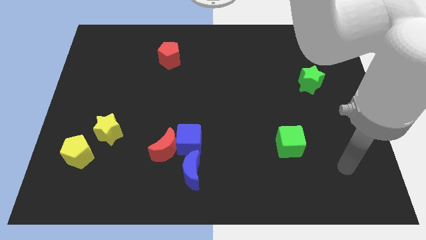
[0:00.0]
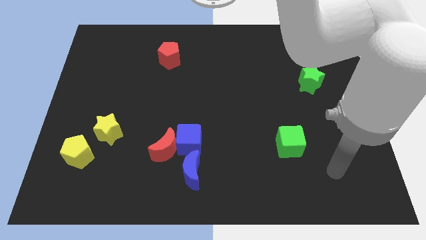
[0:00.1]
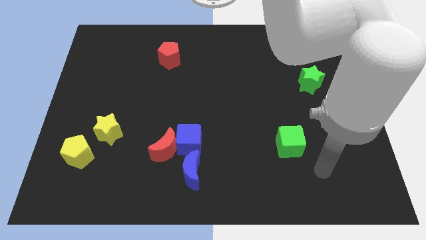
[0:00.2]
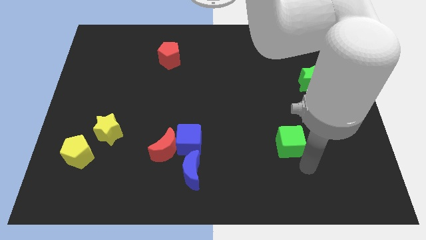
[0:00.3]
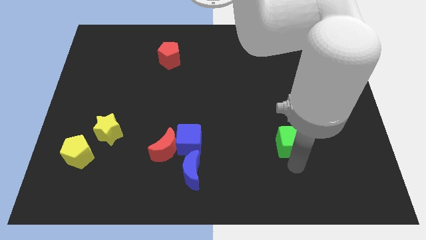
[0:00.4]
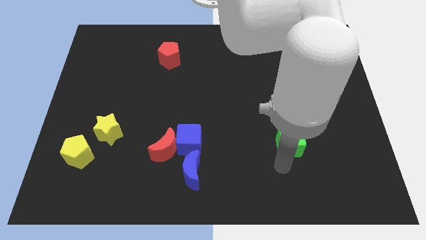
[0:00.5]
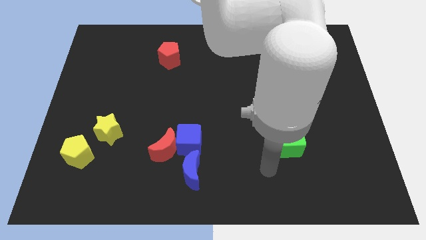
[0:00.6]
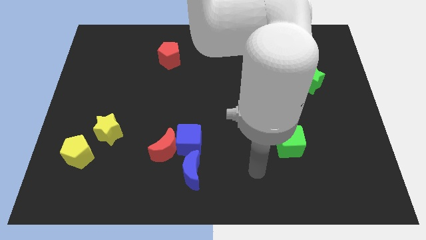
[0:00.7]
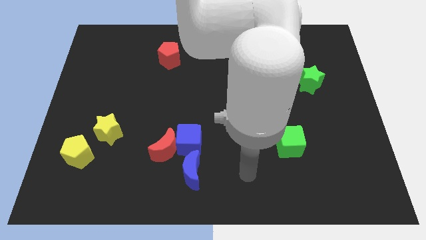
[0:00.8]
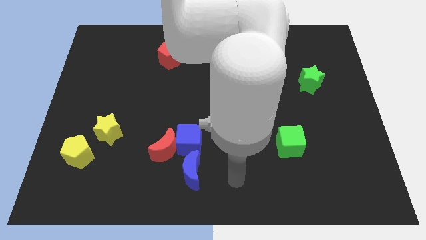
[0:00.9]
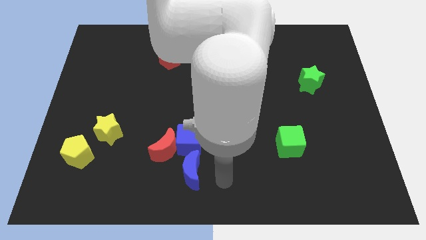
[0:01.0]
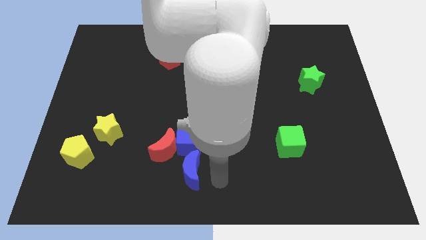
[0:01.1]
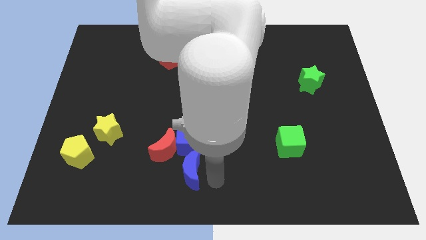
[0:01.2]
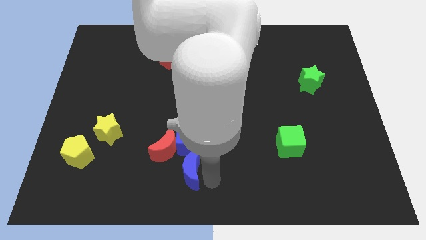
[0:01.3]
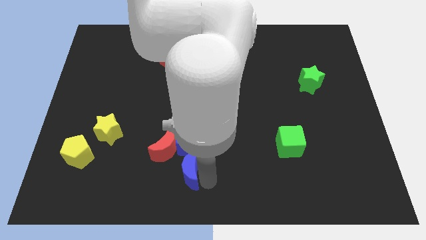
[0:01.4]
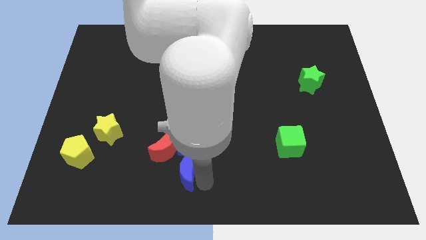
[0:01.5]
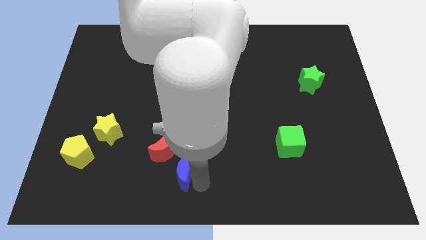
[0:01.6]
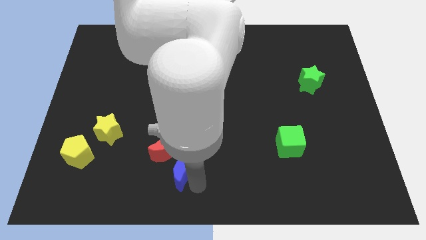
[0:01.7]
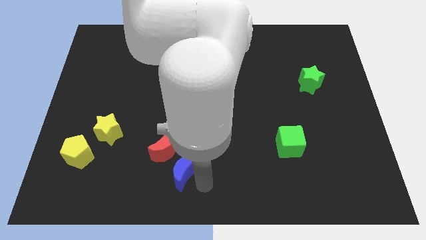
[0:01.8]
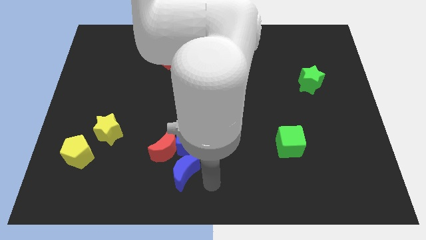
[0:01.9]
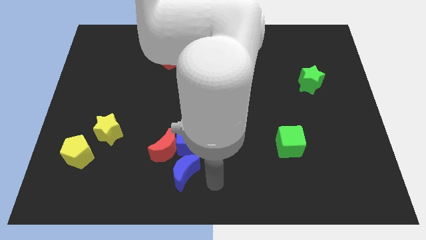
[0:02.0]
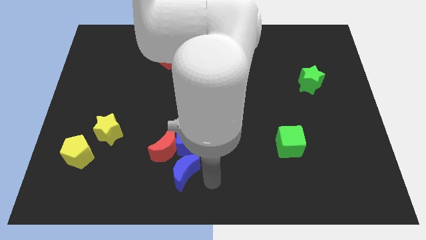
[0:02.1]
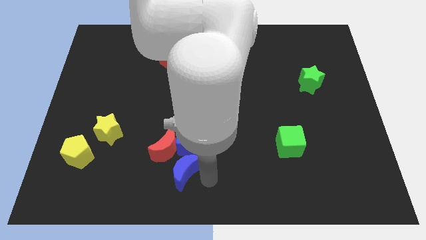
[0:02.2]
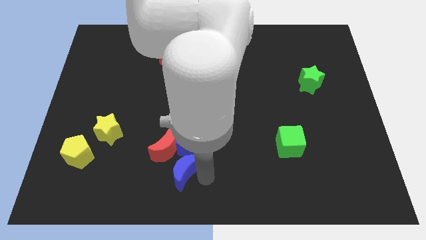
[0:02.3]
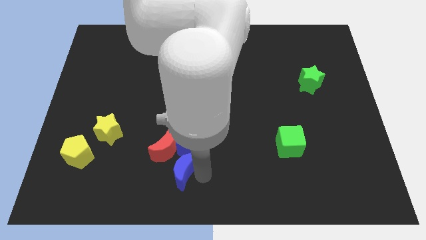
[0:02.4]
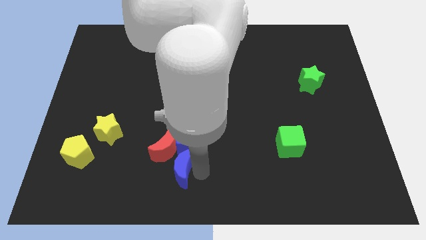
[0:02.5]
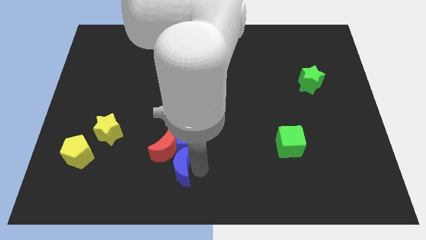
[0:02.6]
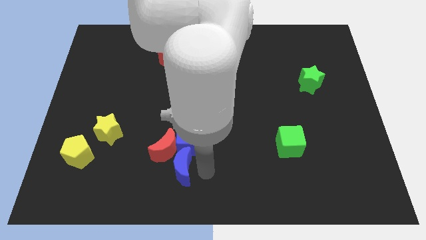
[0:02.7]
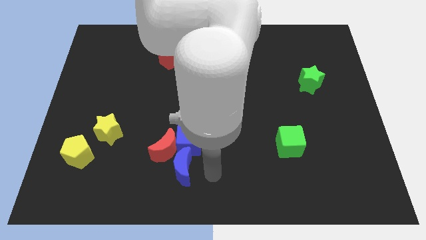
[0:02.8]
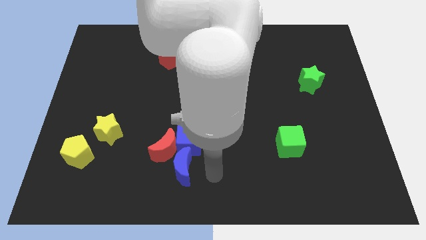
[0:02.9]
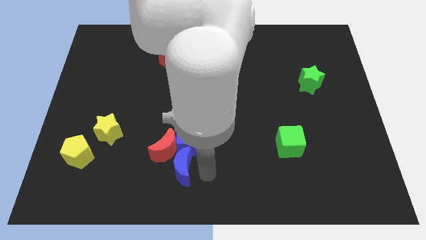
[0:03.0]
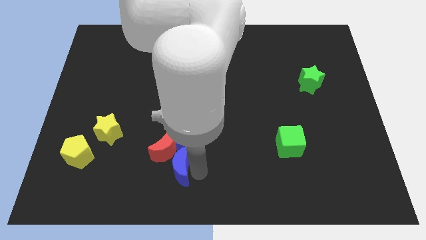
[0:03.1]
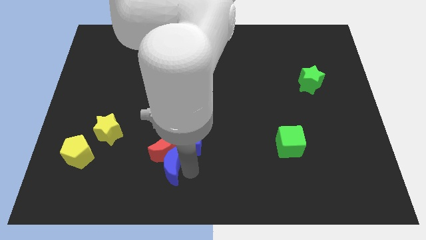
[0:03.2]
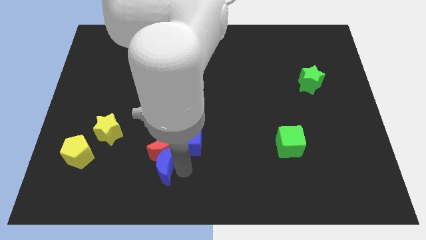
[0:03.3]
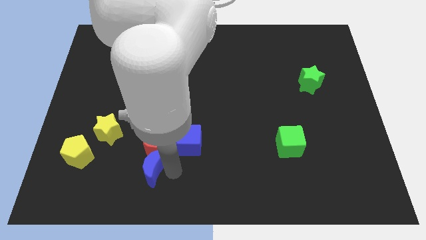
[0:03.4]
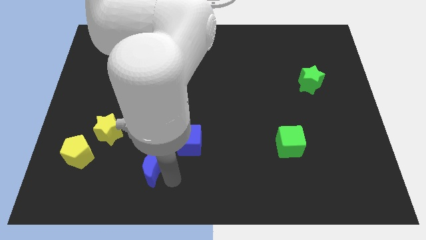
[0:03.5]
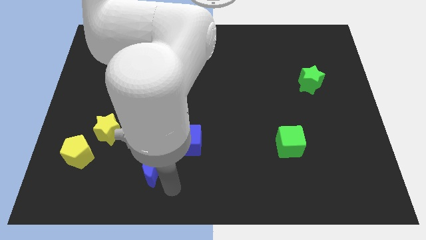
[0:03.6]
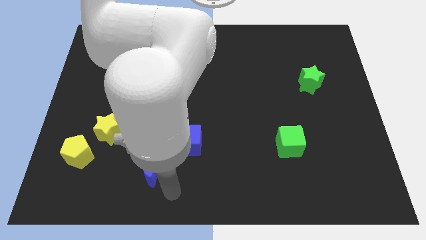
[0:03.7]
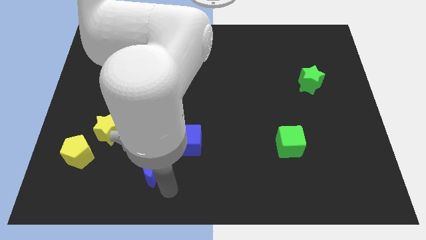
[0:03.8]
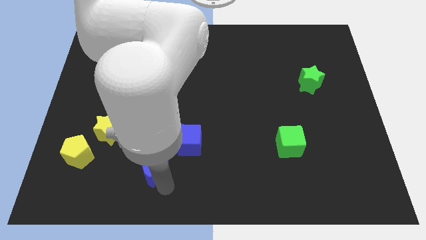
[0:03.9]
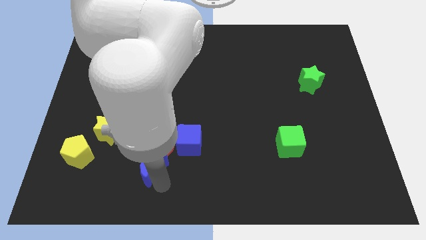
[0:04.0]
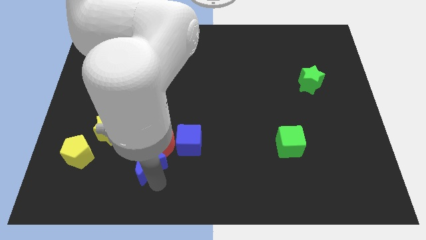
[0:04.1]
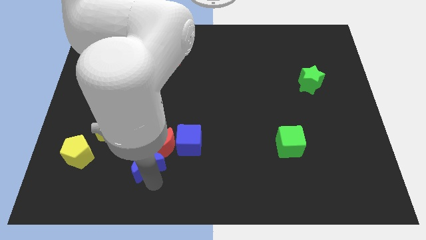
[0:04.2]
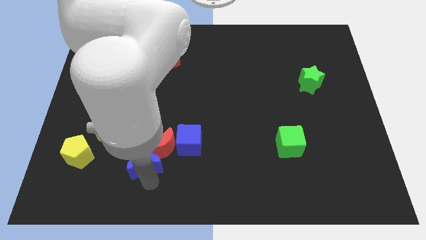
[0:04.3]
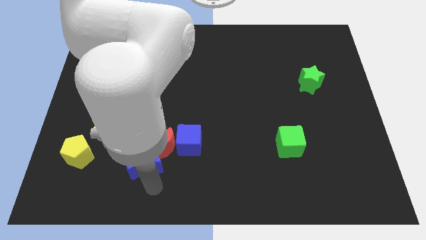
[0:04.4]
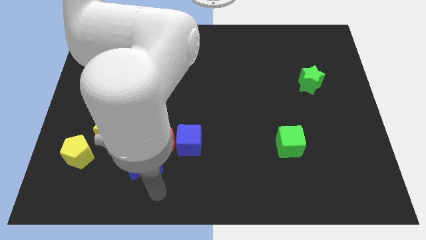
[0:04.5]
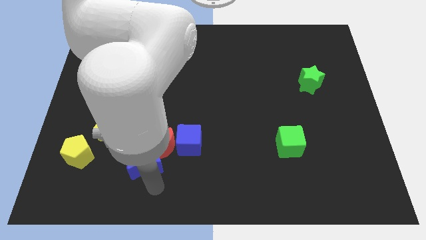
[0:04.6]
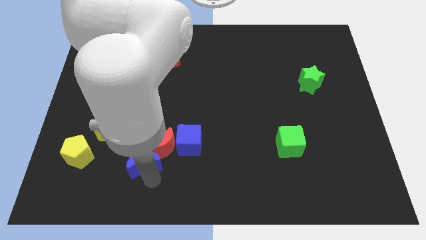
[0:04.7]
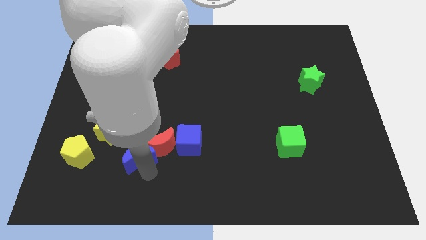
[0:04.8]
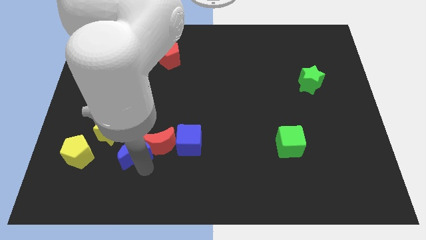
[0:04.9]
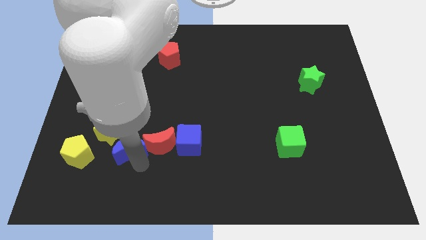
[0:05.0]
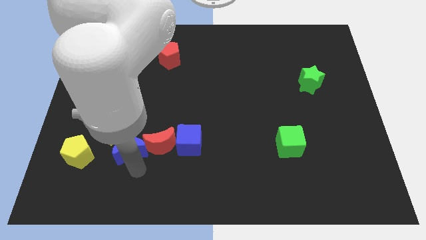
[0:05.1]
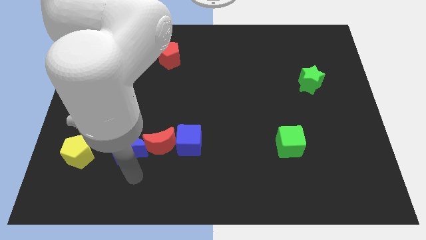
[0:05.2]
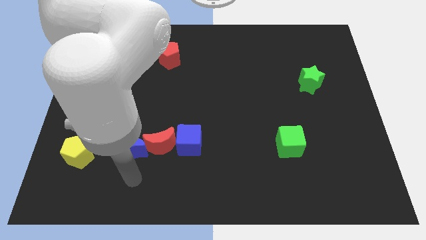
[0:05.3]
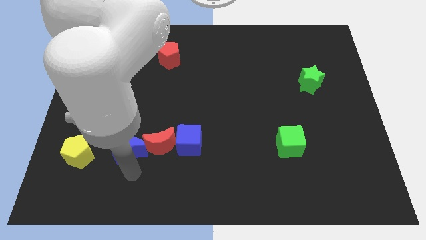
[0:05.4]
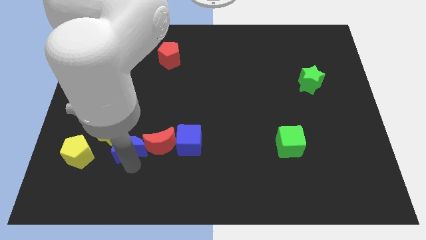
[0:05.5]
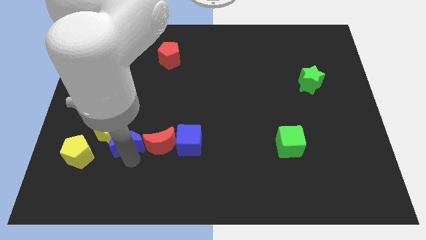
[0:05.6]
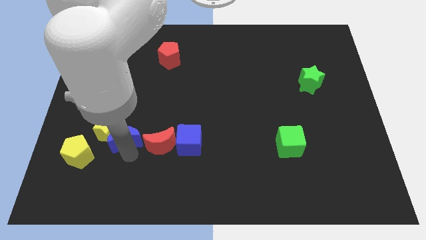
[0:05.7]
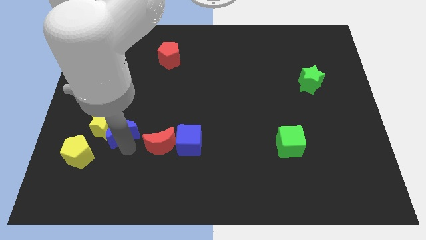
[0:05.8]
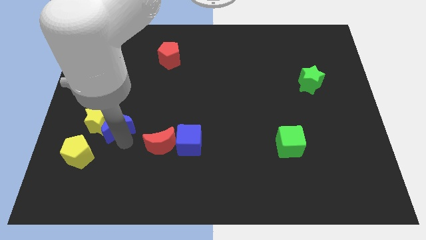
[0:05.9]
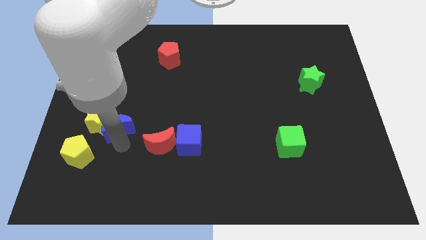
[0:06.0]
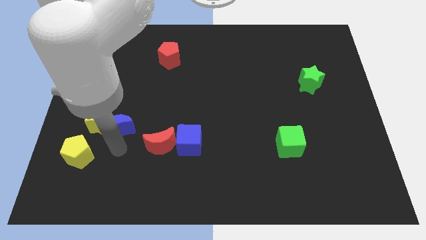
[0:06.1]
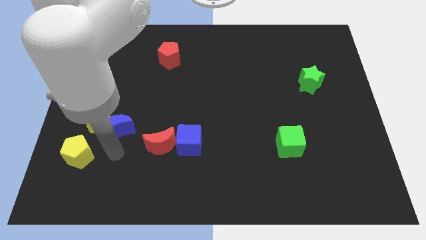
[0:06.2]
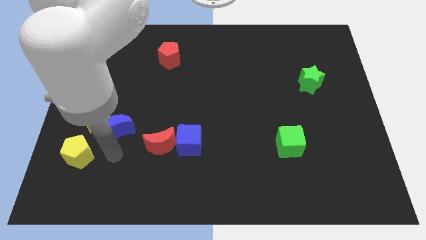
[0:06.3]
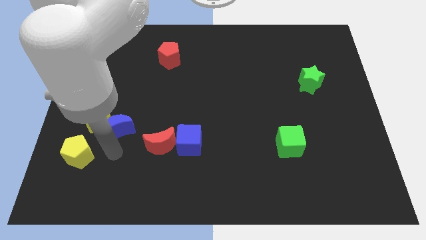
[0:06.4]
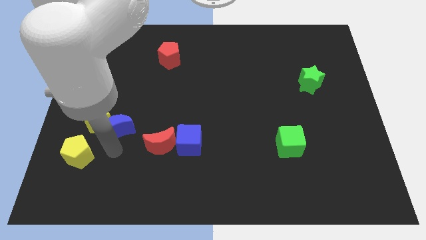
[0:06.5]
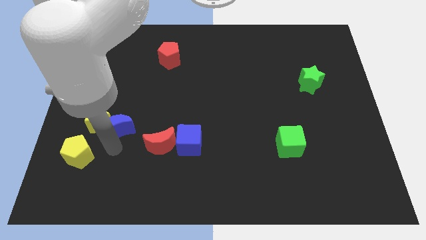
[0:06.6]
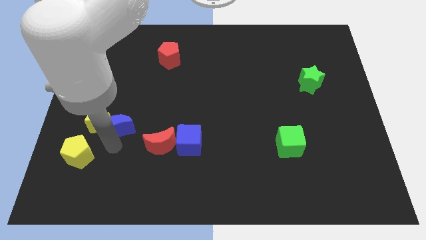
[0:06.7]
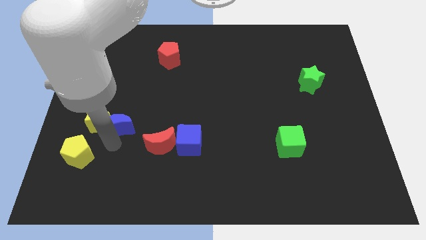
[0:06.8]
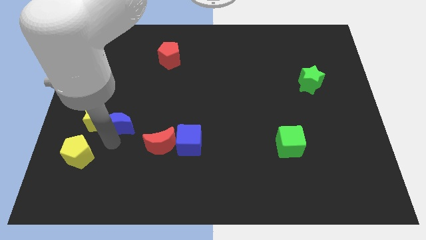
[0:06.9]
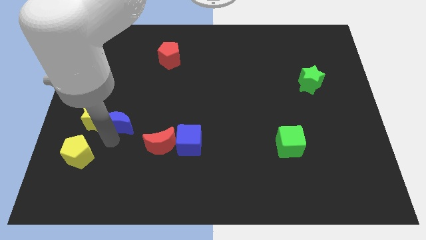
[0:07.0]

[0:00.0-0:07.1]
push the blue moon upwards and left diagonally

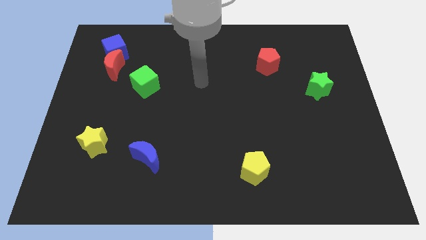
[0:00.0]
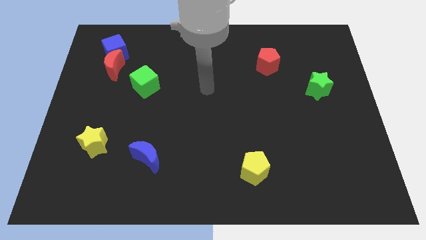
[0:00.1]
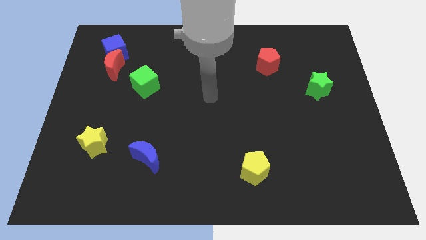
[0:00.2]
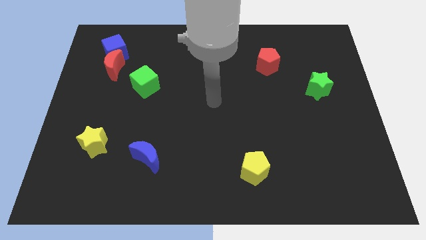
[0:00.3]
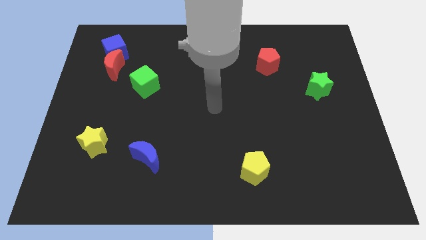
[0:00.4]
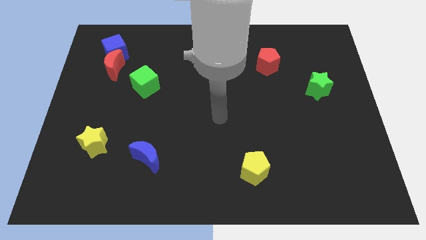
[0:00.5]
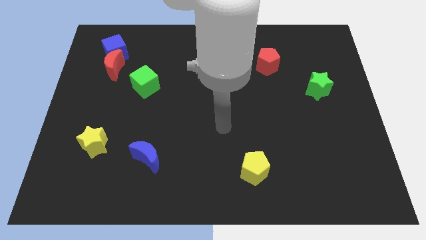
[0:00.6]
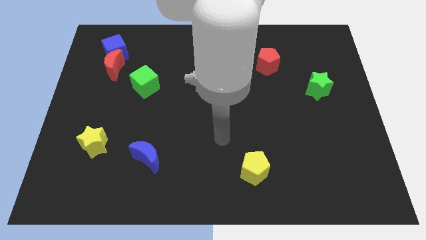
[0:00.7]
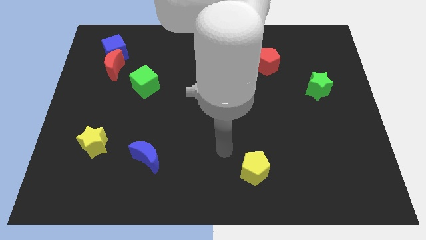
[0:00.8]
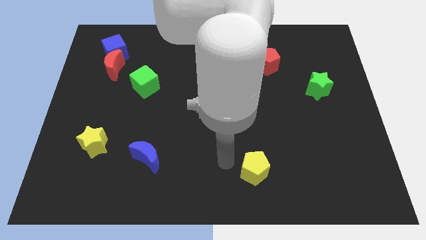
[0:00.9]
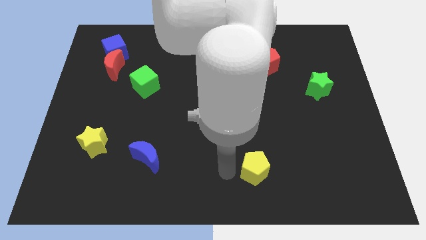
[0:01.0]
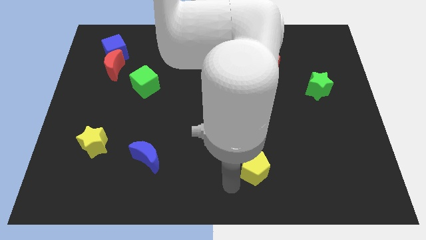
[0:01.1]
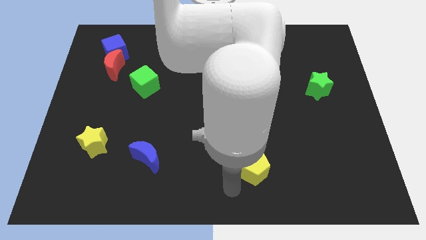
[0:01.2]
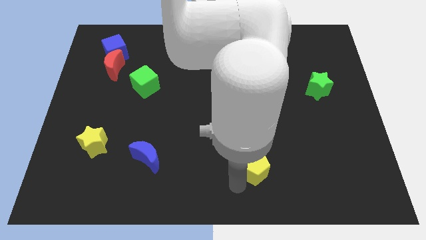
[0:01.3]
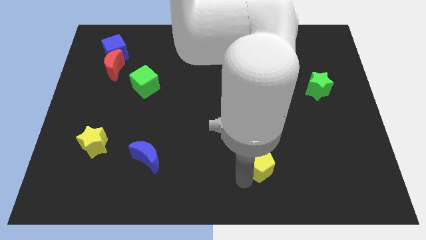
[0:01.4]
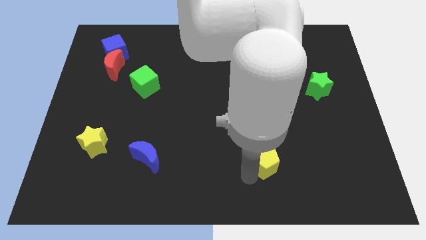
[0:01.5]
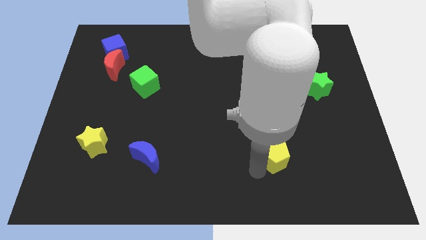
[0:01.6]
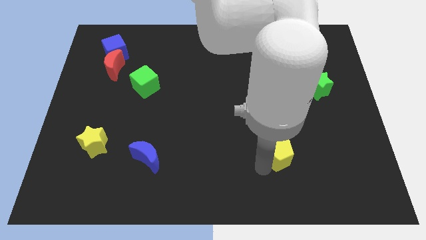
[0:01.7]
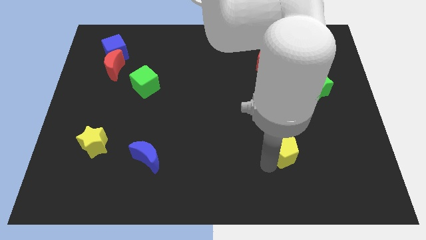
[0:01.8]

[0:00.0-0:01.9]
push the yellow pentagon diagonally up and right somewhat
